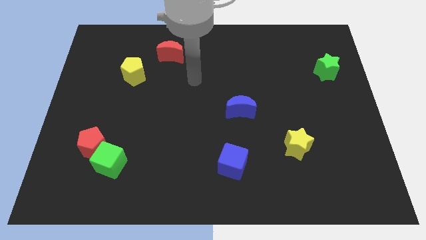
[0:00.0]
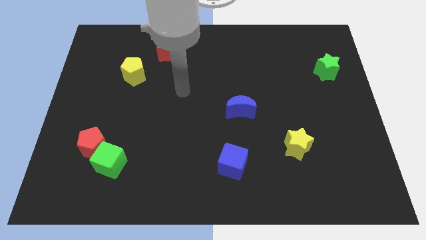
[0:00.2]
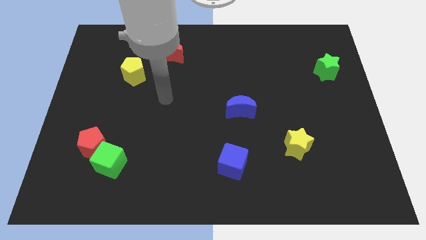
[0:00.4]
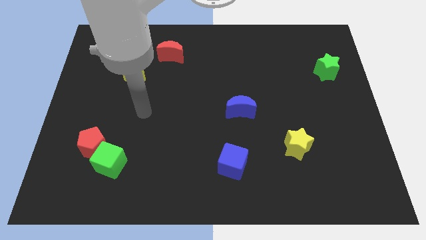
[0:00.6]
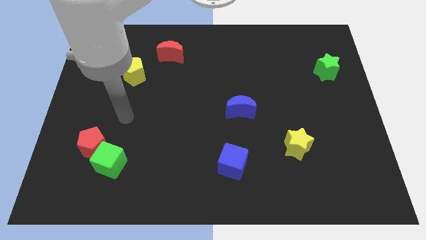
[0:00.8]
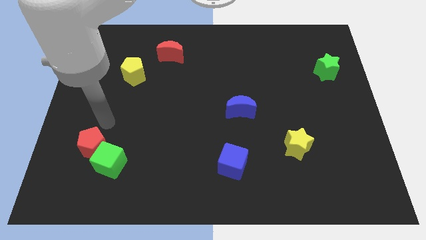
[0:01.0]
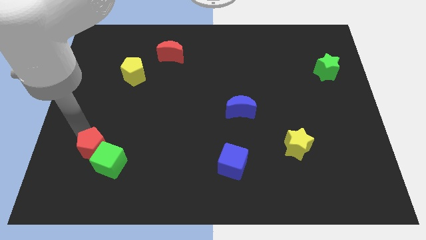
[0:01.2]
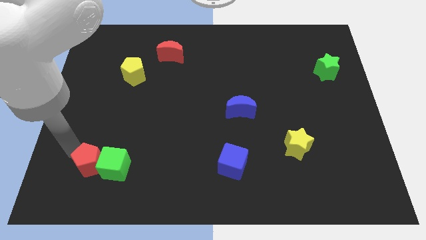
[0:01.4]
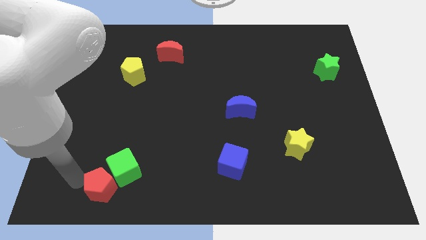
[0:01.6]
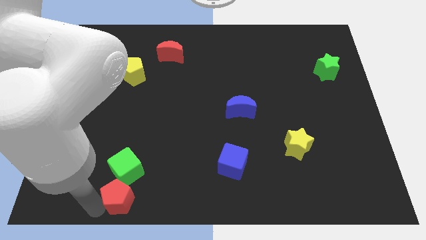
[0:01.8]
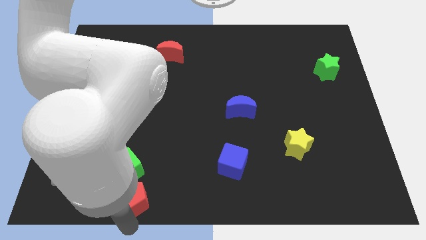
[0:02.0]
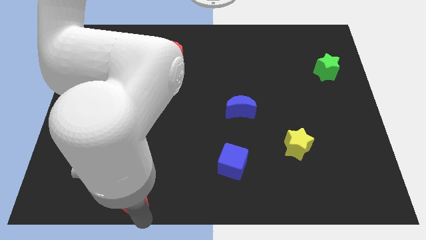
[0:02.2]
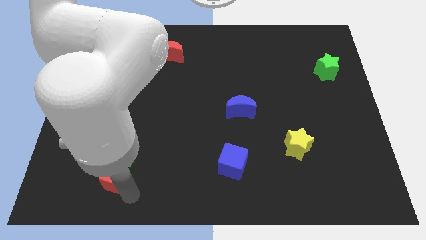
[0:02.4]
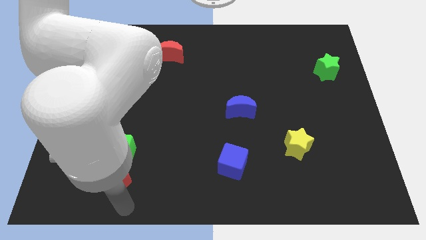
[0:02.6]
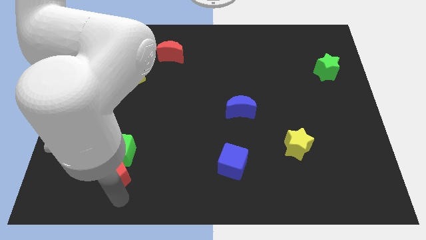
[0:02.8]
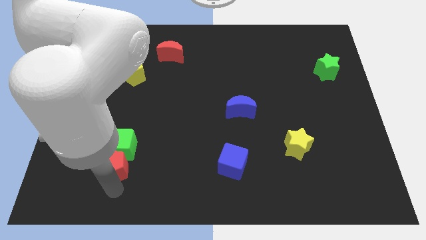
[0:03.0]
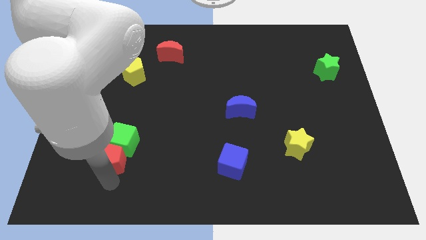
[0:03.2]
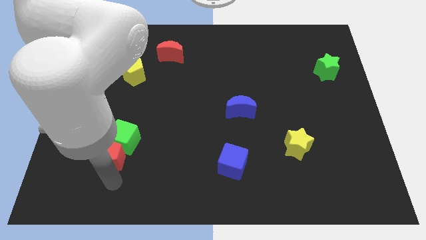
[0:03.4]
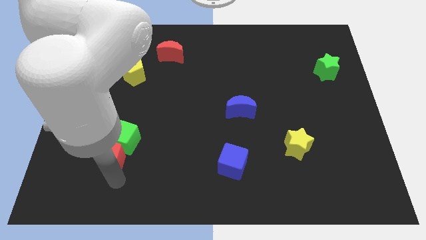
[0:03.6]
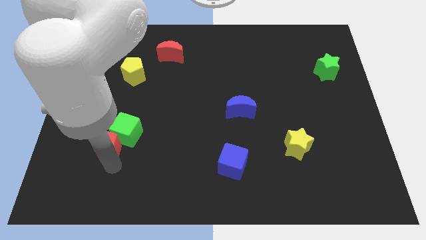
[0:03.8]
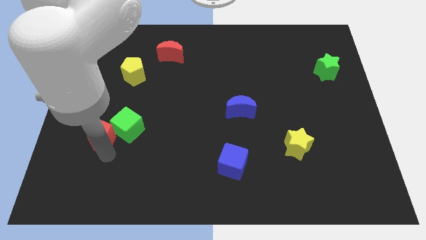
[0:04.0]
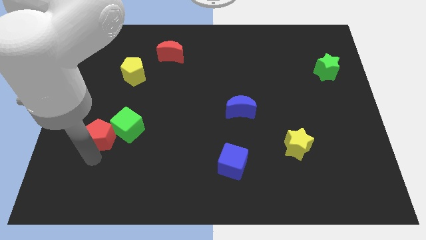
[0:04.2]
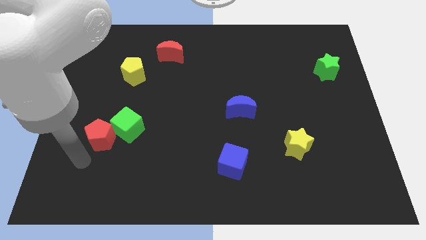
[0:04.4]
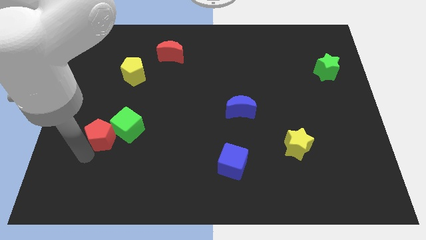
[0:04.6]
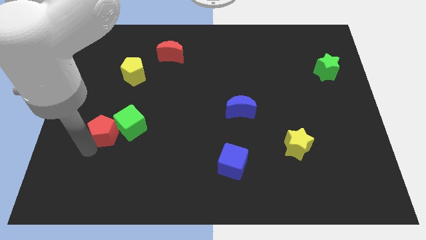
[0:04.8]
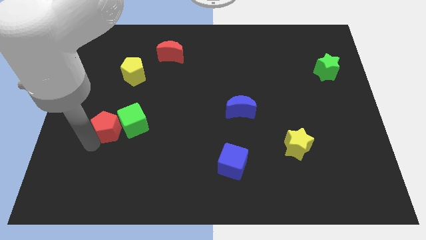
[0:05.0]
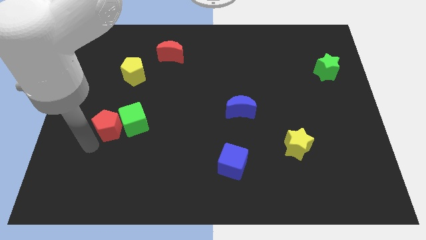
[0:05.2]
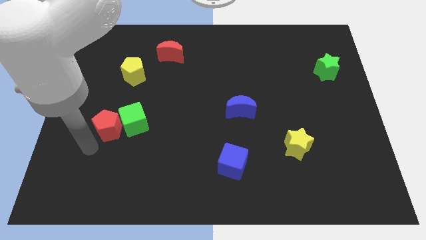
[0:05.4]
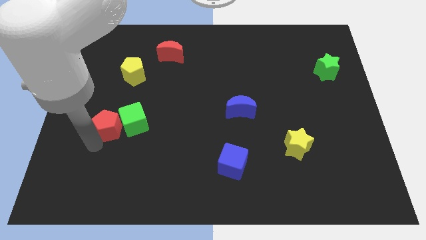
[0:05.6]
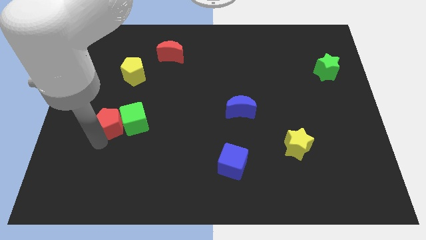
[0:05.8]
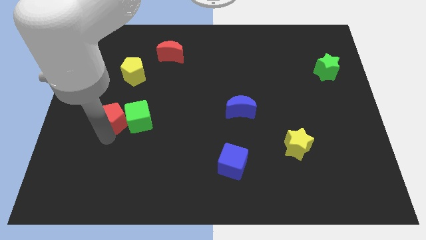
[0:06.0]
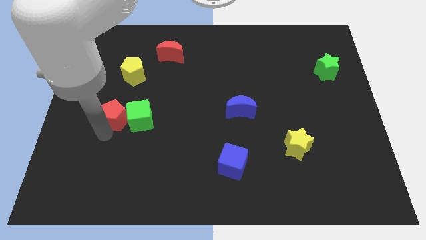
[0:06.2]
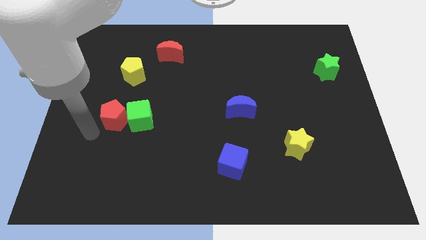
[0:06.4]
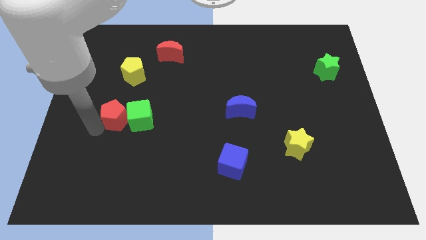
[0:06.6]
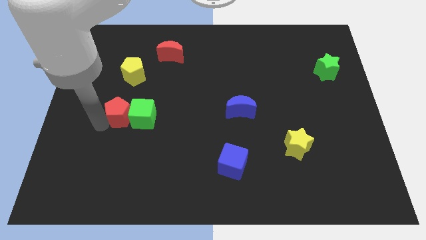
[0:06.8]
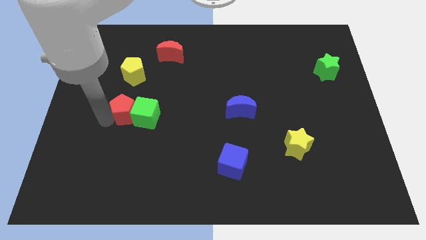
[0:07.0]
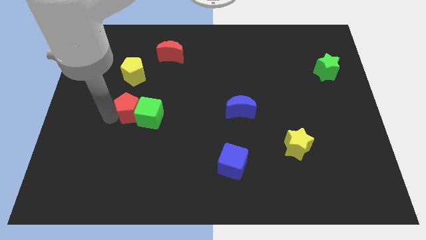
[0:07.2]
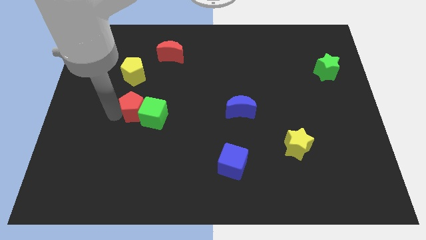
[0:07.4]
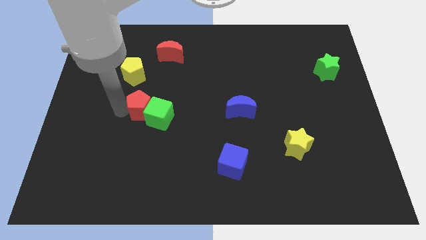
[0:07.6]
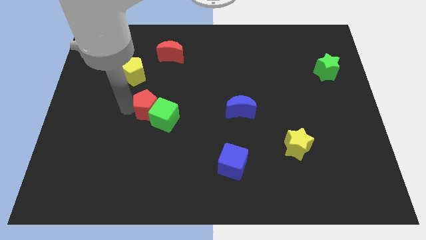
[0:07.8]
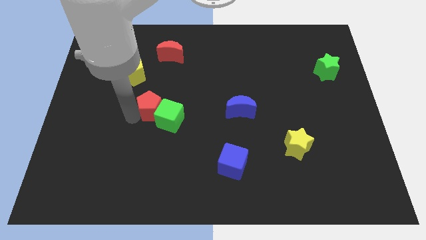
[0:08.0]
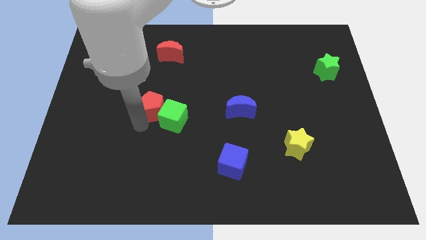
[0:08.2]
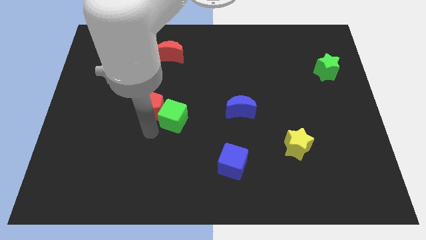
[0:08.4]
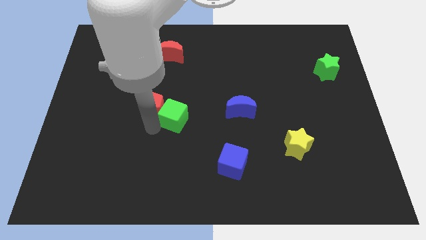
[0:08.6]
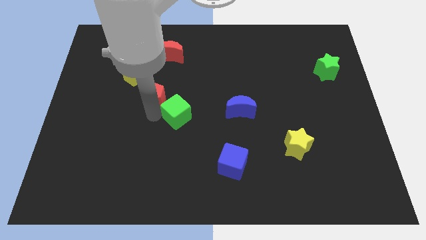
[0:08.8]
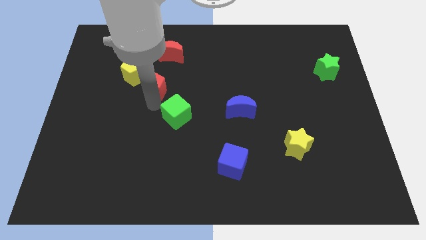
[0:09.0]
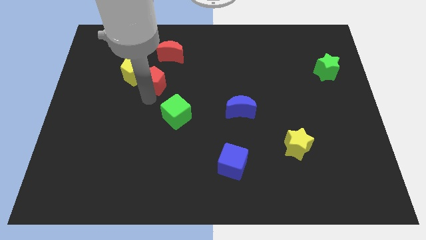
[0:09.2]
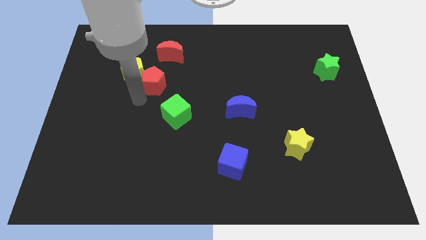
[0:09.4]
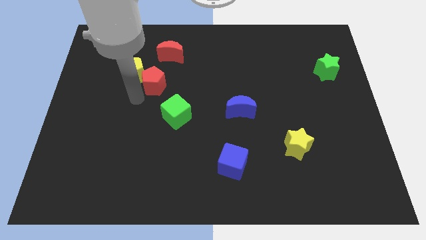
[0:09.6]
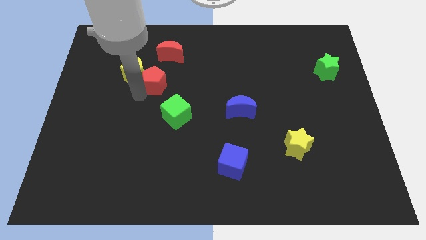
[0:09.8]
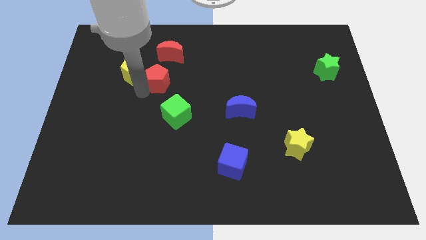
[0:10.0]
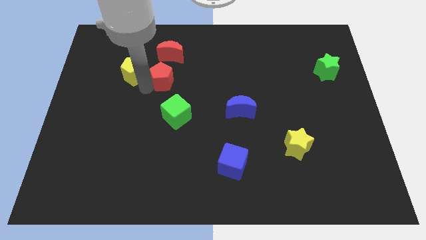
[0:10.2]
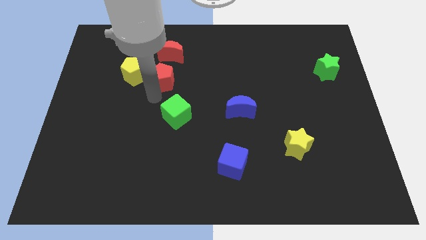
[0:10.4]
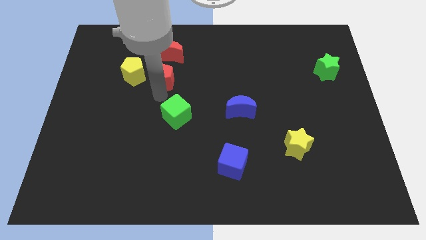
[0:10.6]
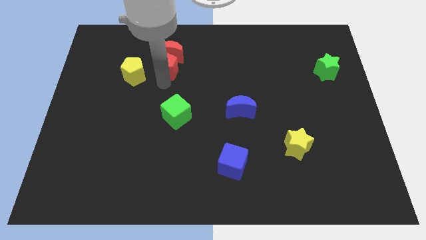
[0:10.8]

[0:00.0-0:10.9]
move the red pentagon towards the red moon

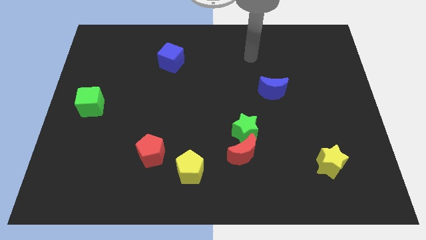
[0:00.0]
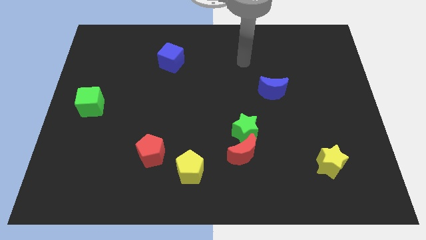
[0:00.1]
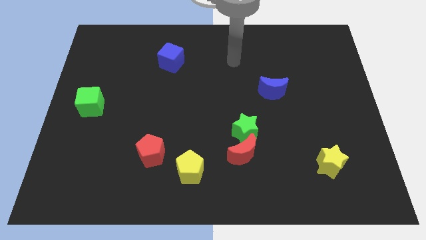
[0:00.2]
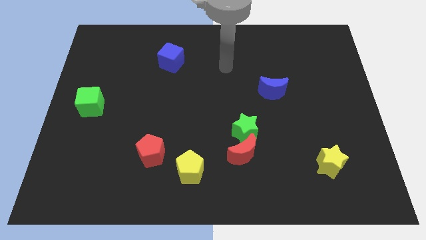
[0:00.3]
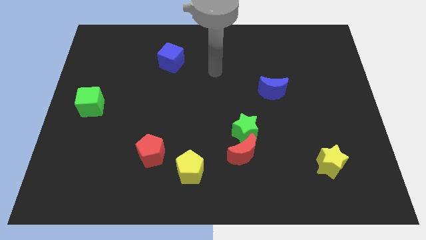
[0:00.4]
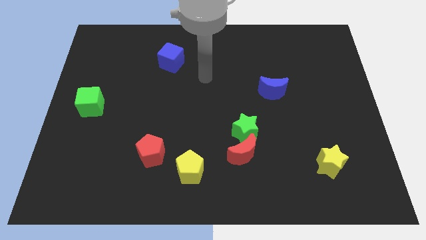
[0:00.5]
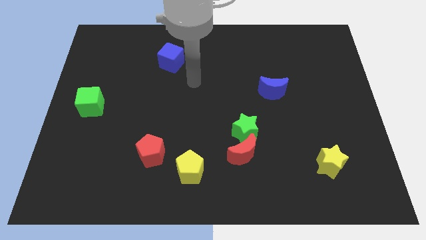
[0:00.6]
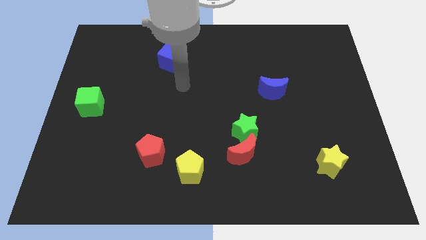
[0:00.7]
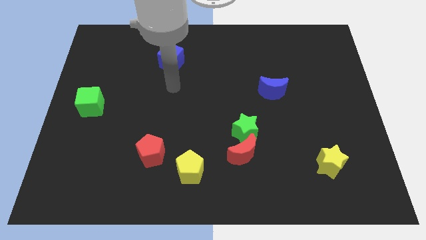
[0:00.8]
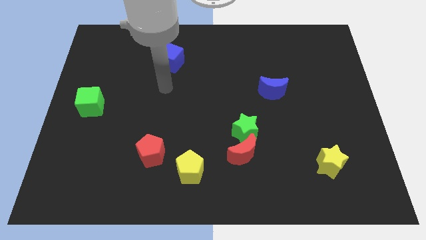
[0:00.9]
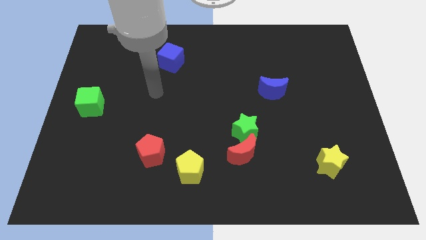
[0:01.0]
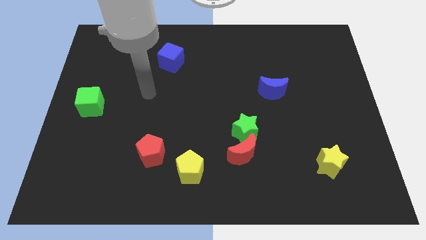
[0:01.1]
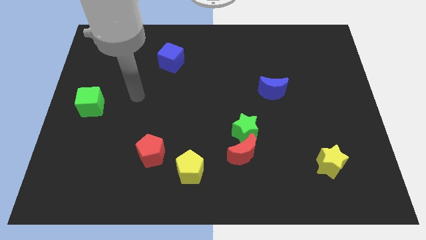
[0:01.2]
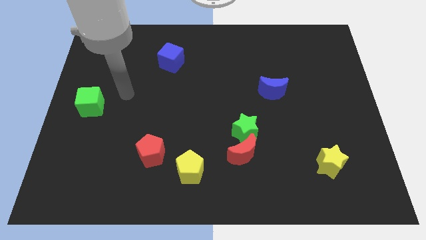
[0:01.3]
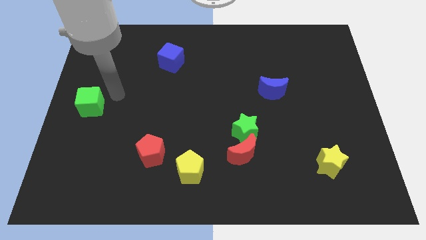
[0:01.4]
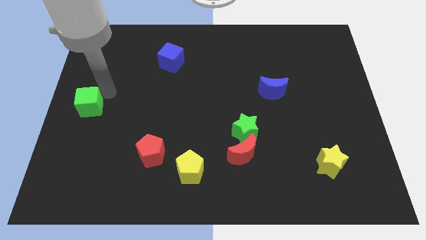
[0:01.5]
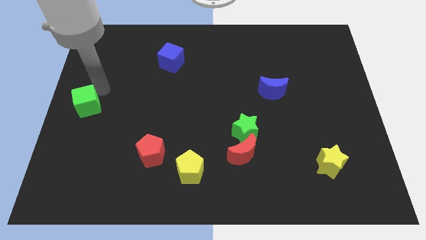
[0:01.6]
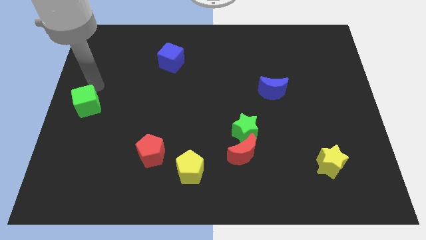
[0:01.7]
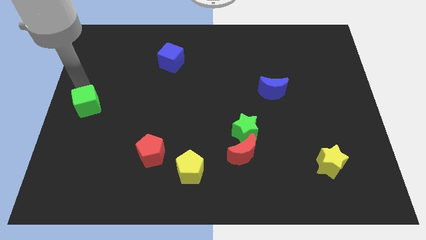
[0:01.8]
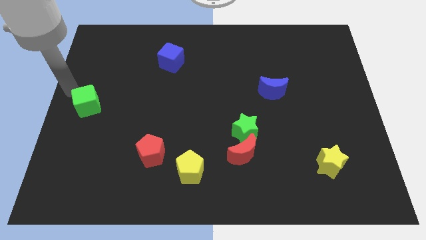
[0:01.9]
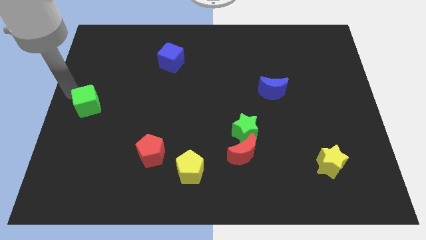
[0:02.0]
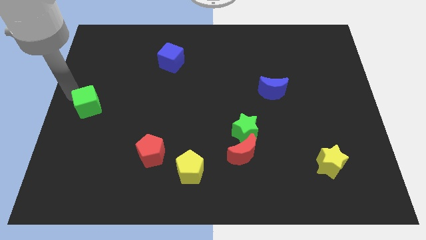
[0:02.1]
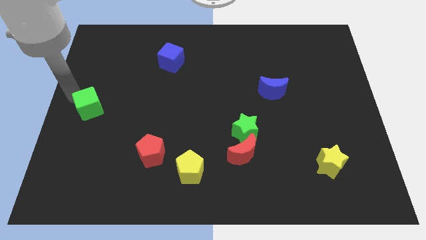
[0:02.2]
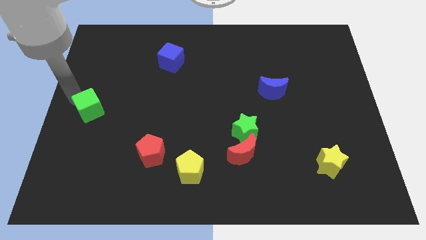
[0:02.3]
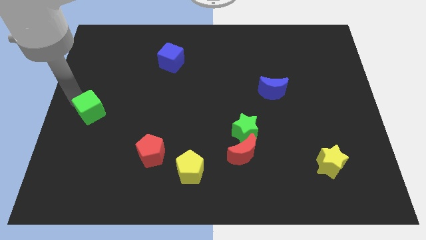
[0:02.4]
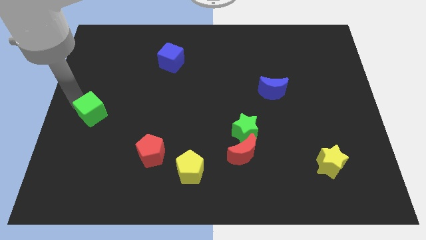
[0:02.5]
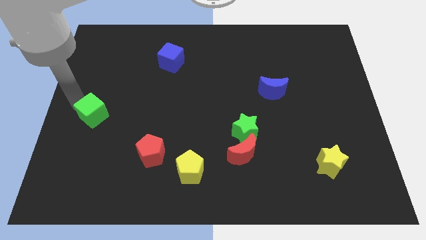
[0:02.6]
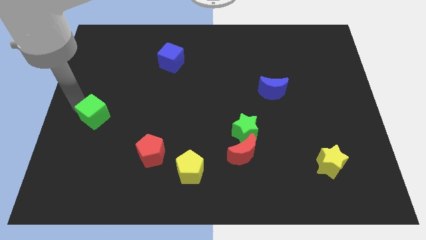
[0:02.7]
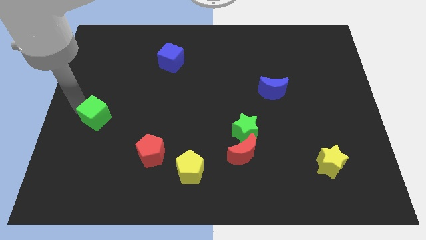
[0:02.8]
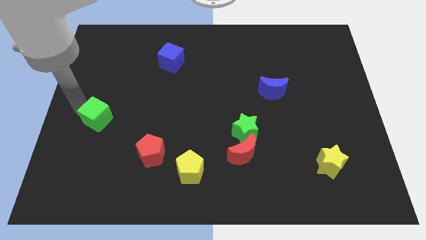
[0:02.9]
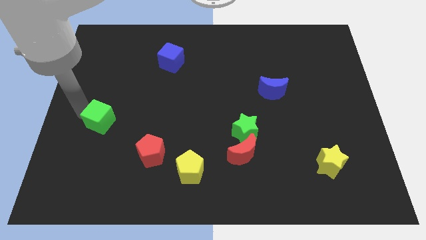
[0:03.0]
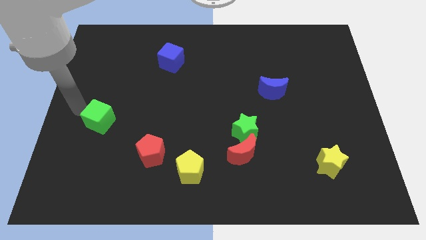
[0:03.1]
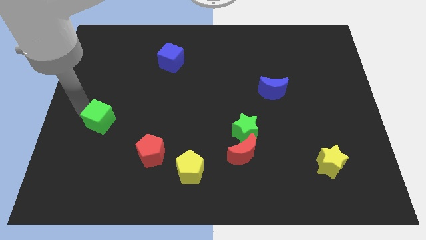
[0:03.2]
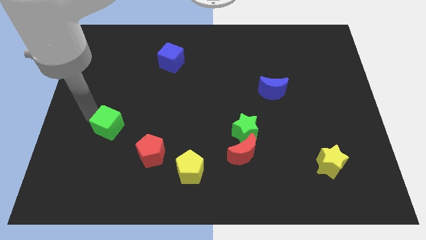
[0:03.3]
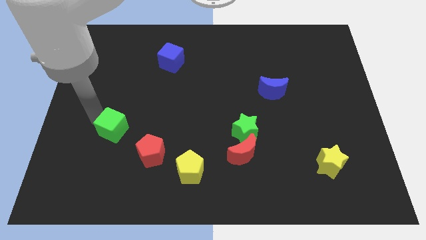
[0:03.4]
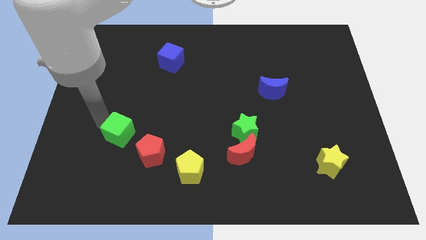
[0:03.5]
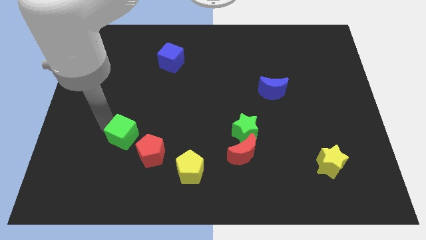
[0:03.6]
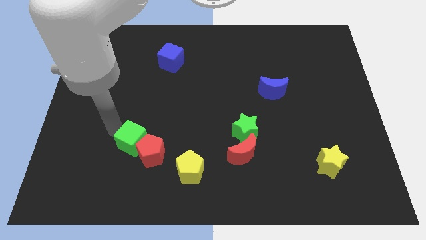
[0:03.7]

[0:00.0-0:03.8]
move the green cube to the red pentagon
